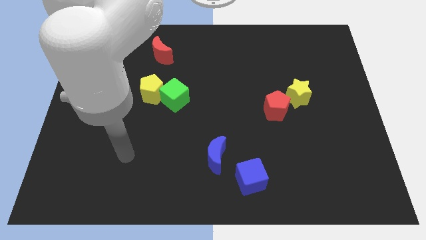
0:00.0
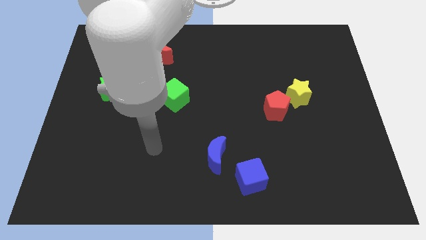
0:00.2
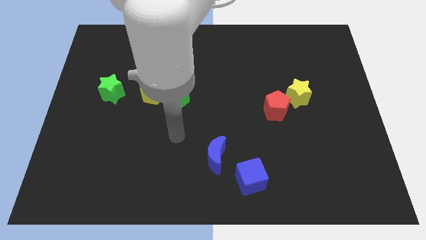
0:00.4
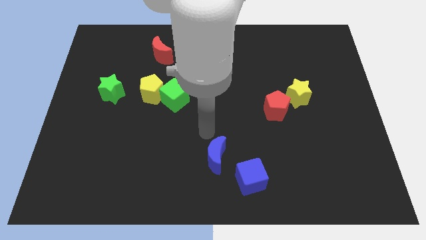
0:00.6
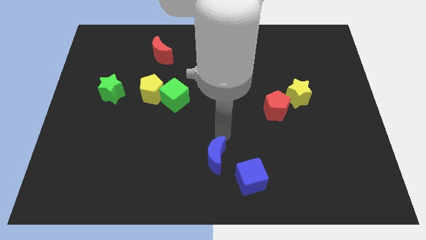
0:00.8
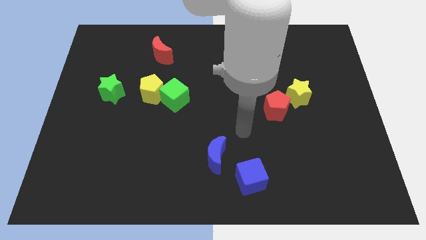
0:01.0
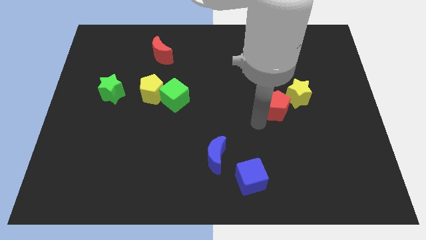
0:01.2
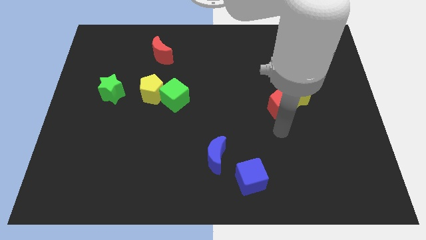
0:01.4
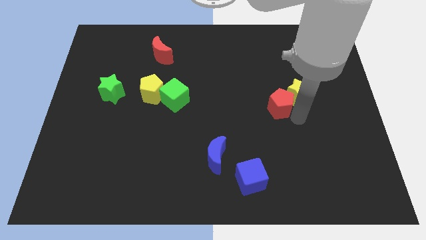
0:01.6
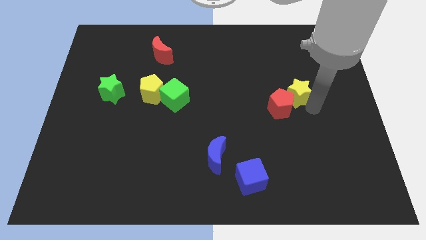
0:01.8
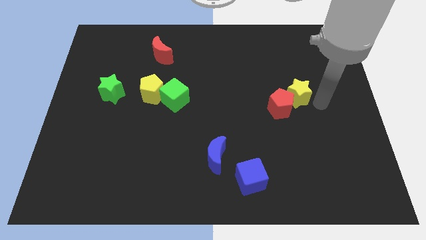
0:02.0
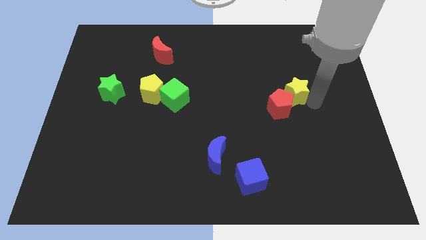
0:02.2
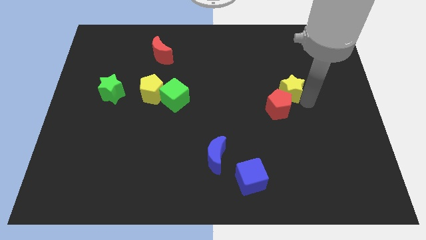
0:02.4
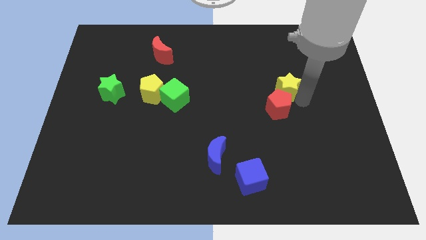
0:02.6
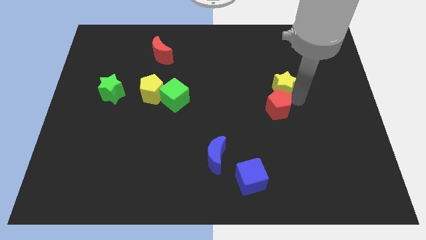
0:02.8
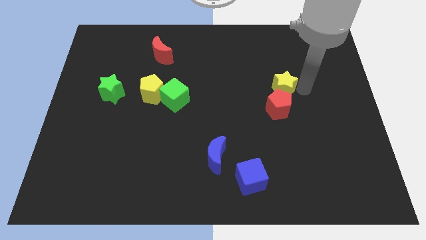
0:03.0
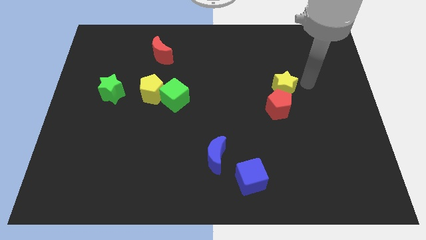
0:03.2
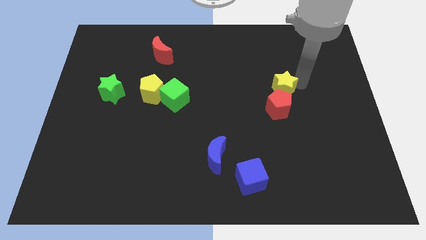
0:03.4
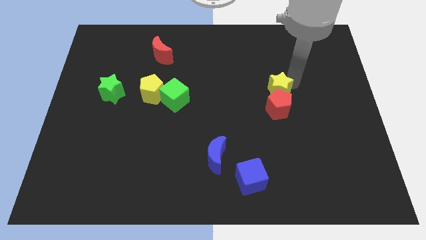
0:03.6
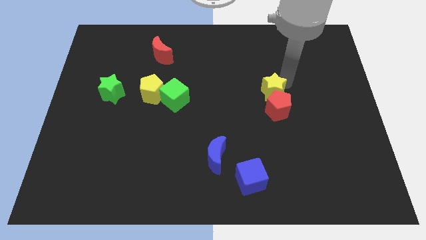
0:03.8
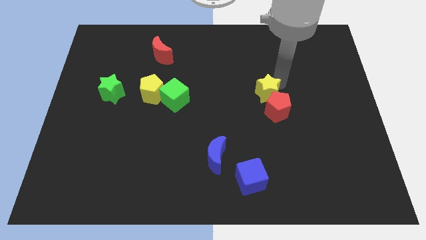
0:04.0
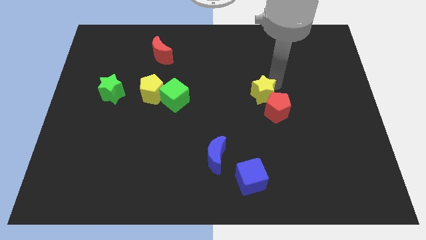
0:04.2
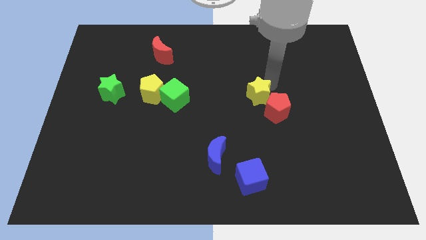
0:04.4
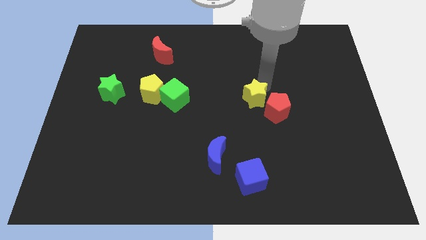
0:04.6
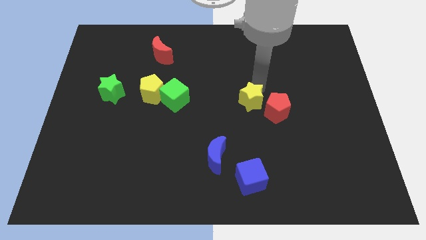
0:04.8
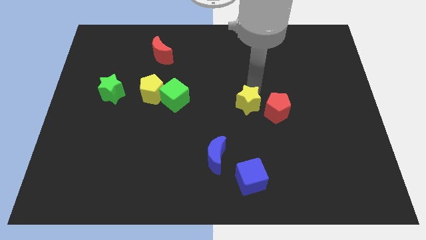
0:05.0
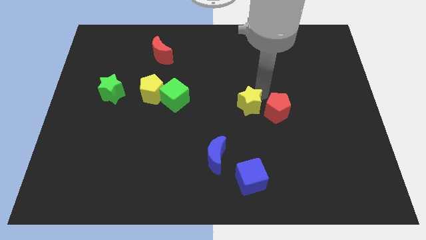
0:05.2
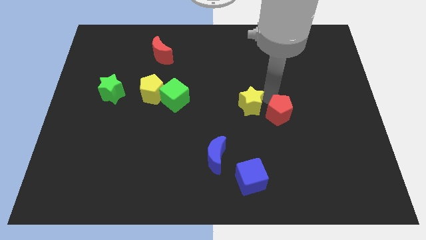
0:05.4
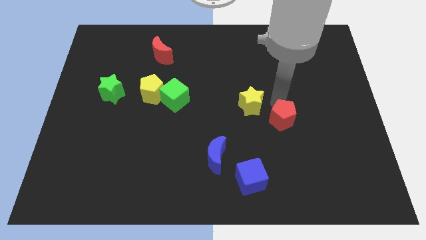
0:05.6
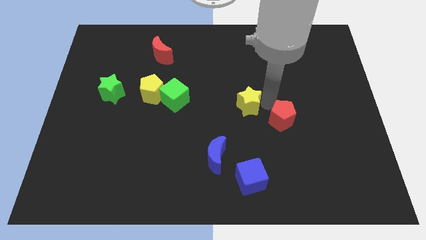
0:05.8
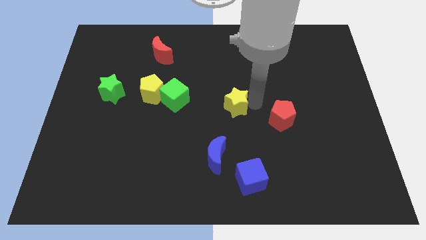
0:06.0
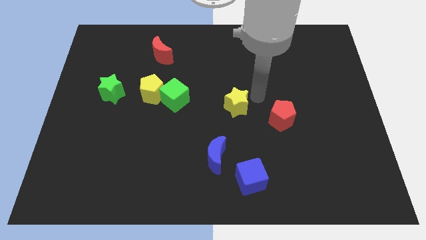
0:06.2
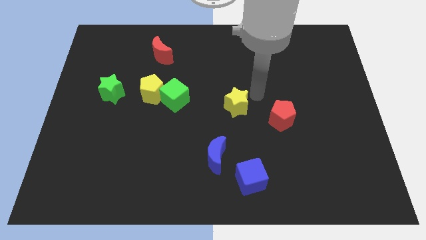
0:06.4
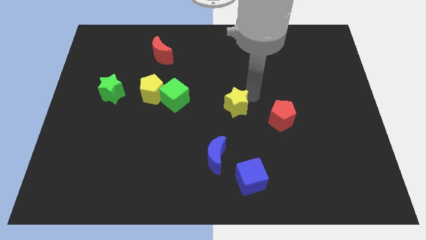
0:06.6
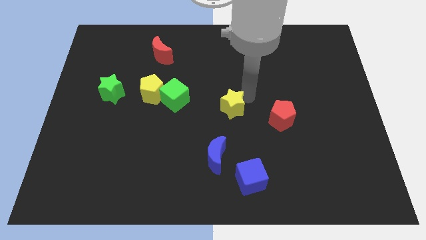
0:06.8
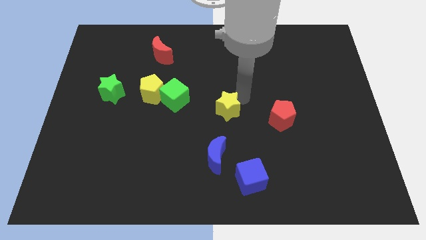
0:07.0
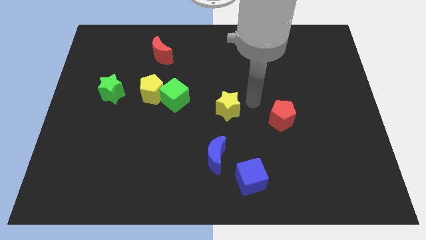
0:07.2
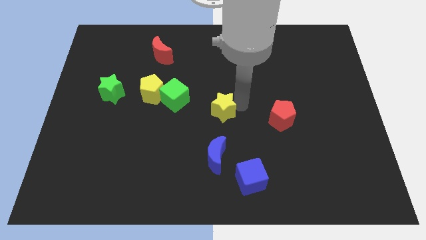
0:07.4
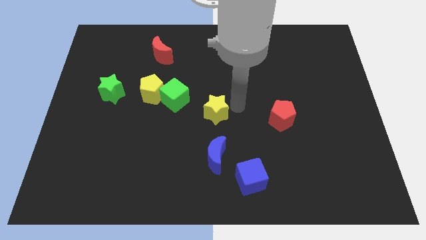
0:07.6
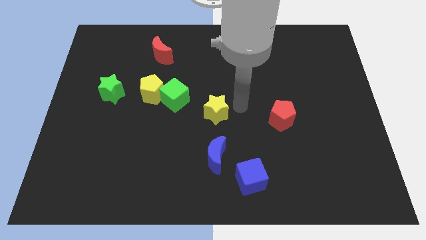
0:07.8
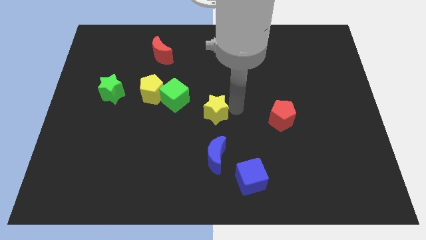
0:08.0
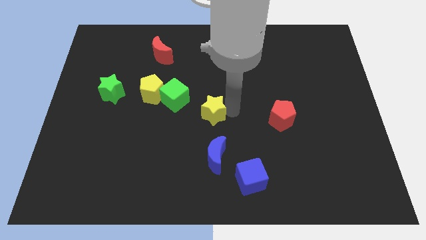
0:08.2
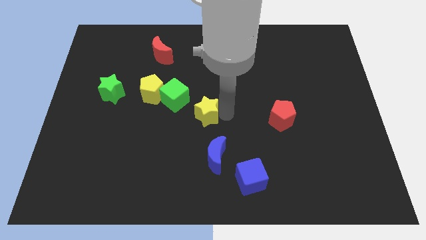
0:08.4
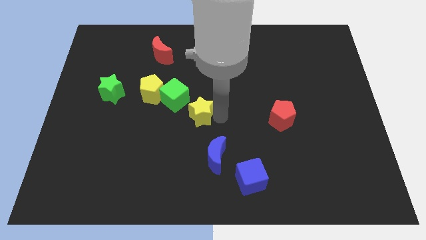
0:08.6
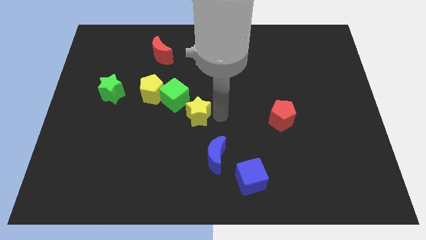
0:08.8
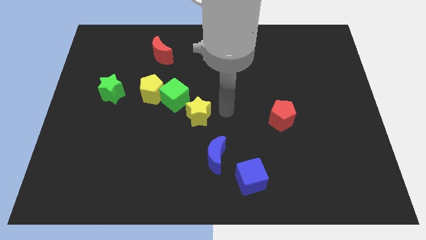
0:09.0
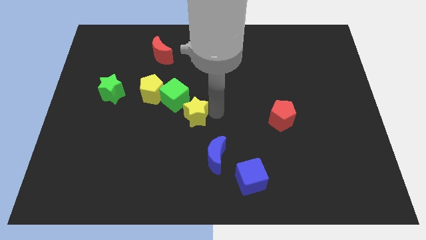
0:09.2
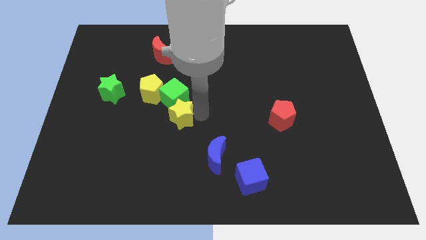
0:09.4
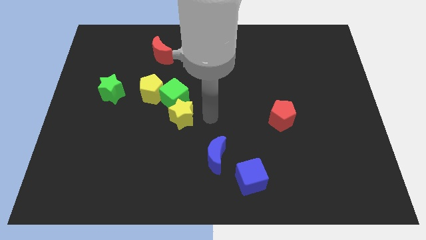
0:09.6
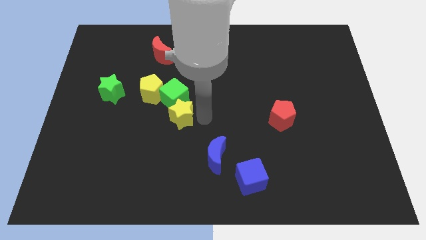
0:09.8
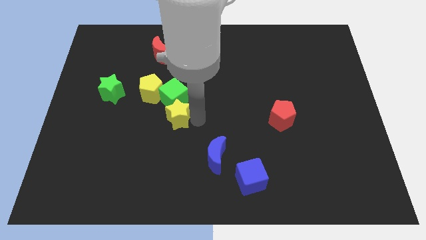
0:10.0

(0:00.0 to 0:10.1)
put the yellow star diagonally down and to the left of the green cube

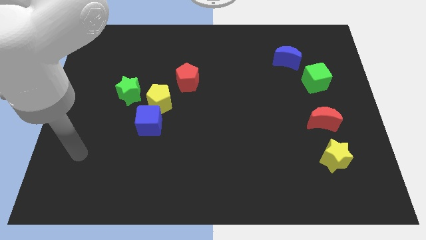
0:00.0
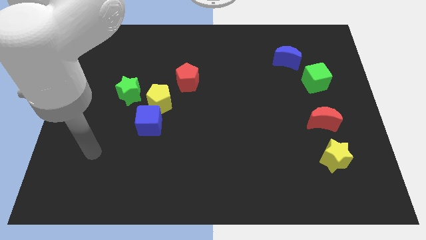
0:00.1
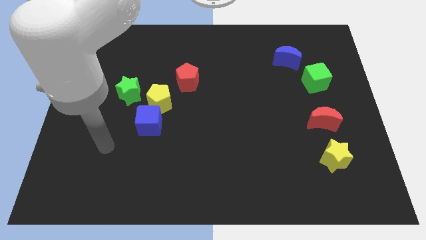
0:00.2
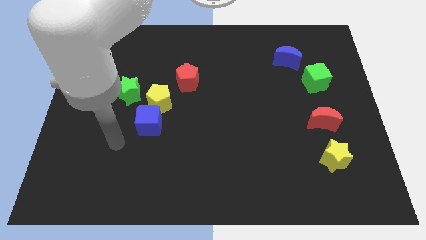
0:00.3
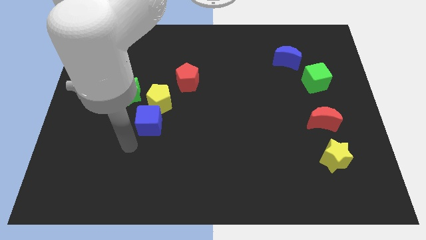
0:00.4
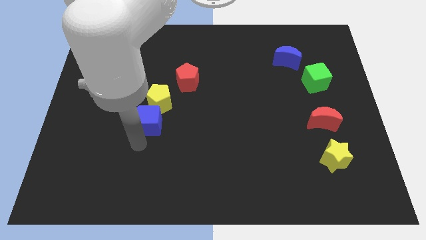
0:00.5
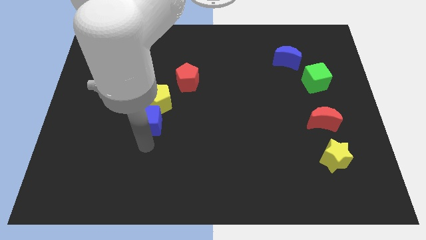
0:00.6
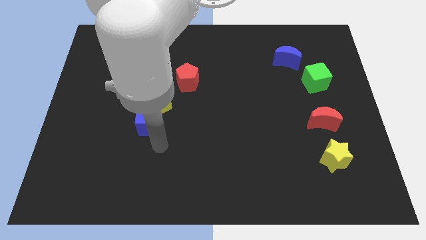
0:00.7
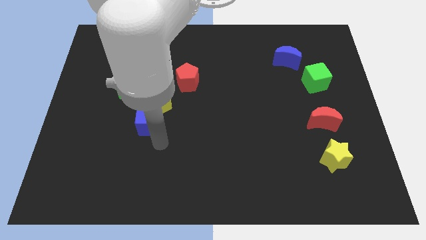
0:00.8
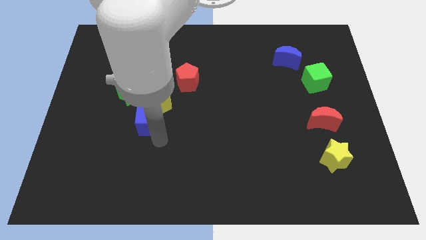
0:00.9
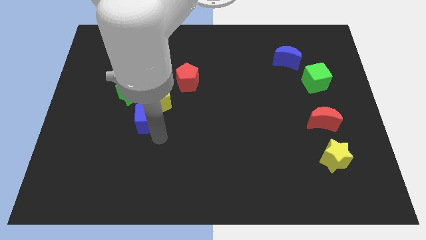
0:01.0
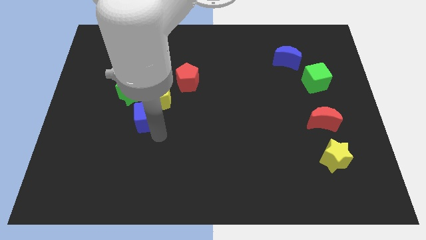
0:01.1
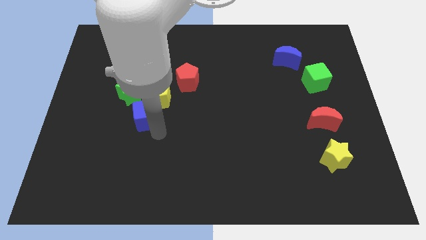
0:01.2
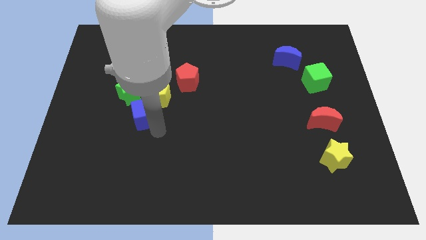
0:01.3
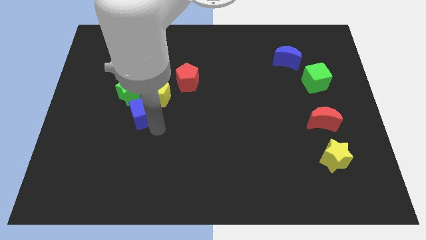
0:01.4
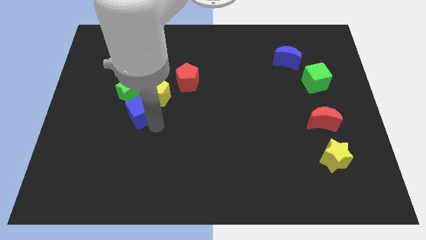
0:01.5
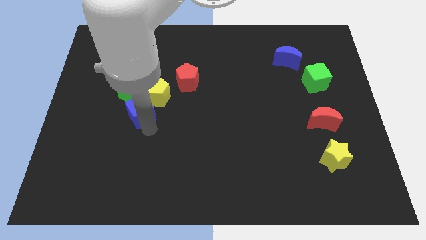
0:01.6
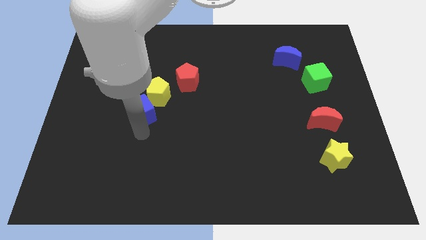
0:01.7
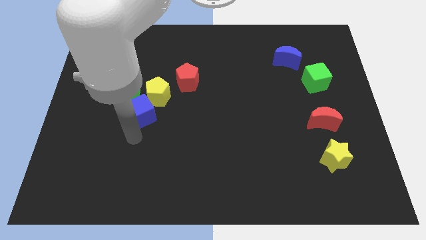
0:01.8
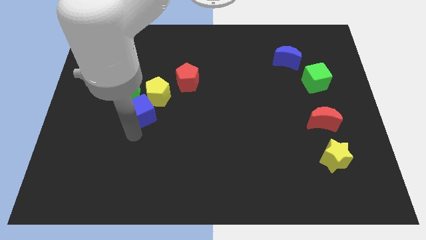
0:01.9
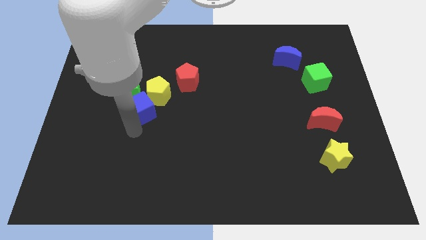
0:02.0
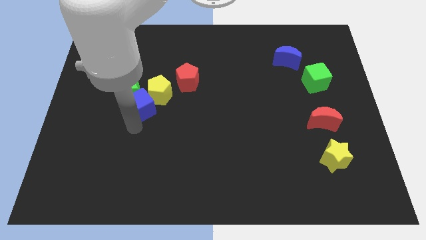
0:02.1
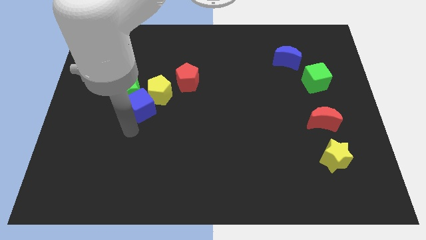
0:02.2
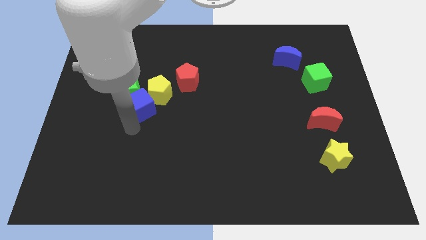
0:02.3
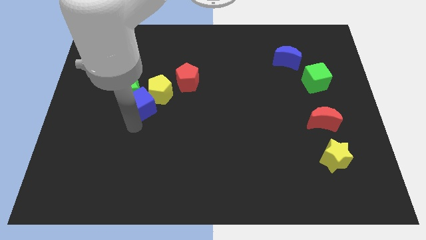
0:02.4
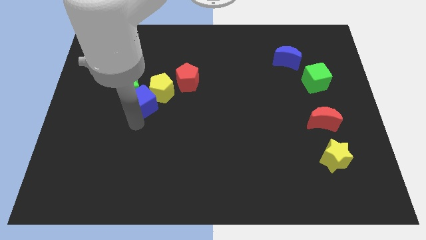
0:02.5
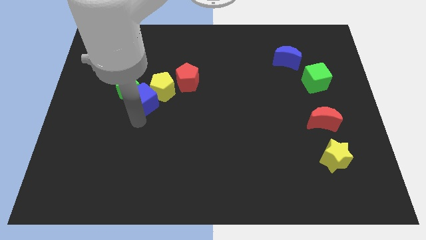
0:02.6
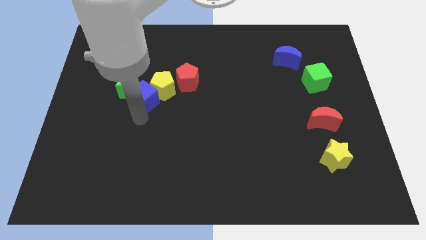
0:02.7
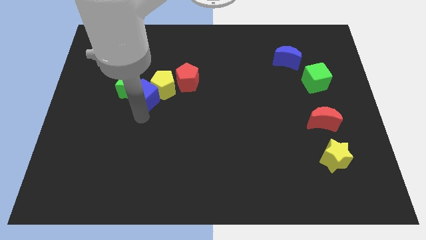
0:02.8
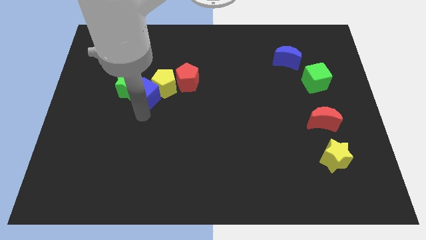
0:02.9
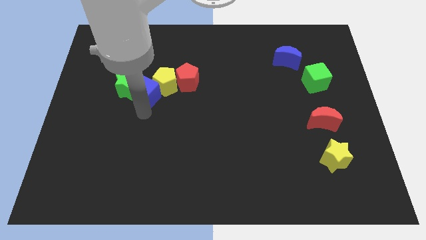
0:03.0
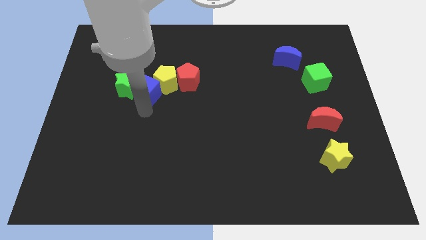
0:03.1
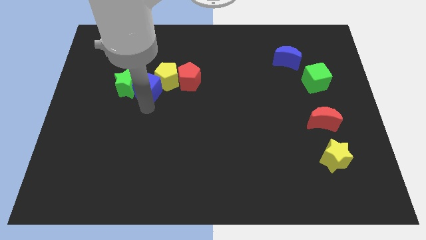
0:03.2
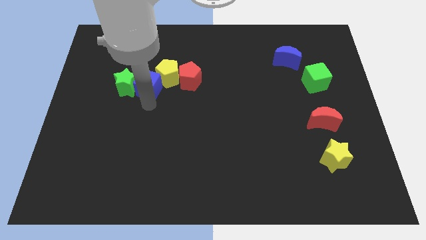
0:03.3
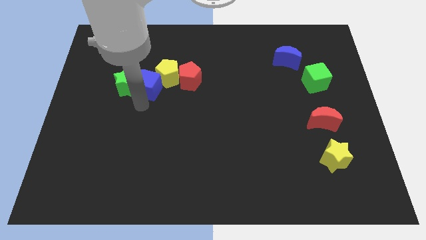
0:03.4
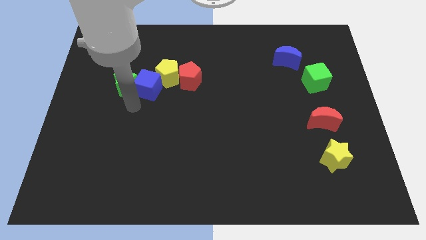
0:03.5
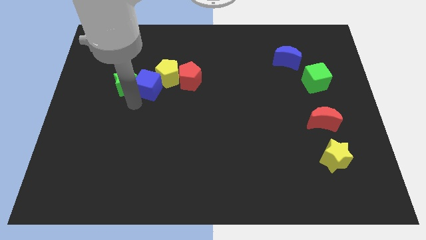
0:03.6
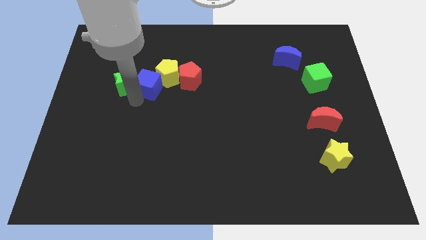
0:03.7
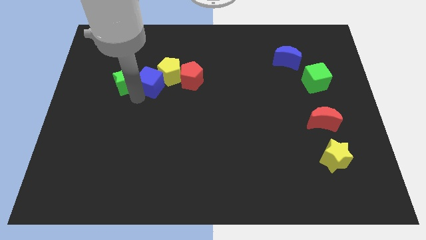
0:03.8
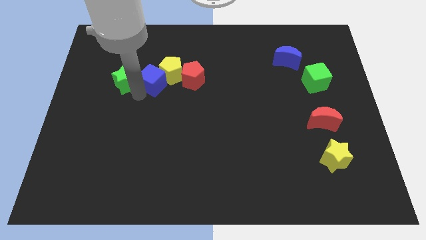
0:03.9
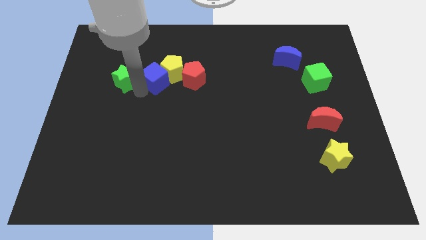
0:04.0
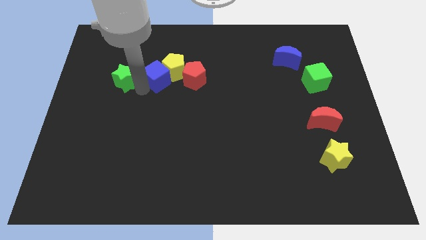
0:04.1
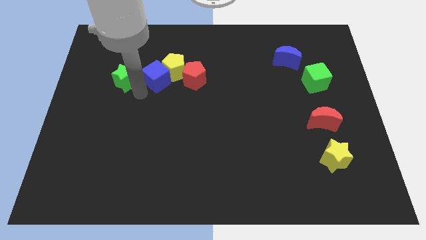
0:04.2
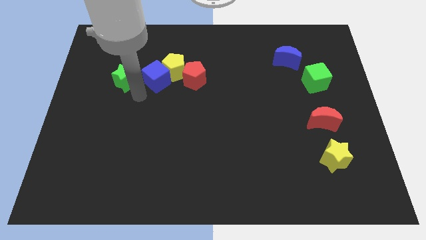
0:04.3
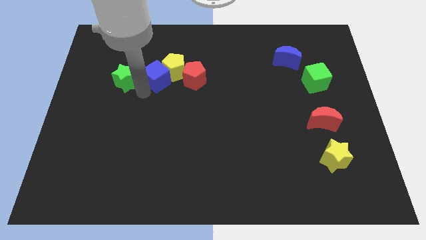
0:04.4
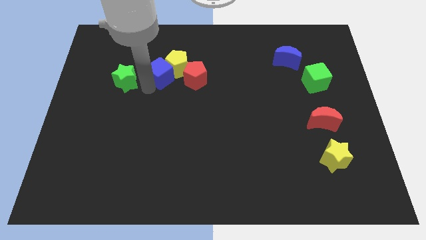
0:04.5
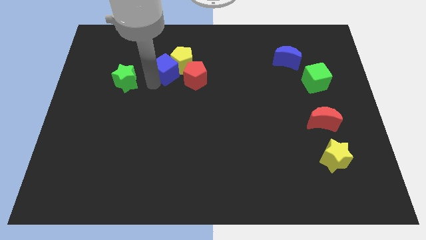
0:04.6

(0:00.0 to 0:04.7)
push the blue cube to the top left side of the red pentagon
